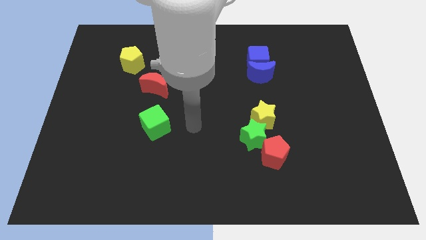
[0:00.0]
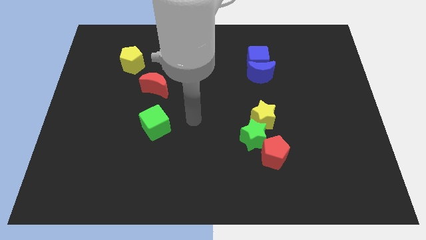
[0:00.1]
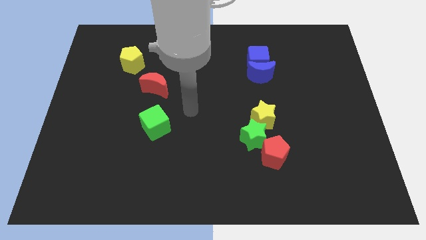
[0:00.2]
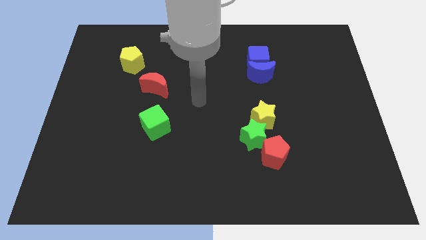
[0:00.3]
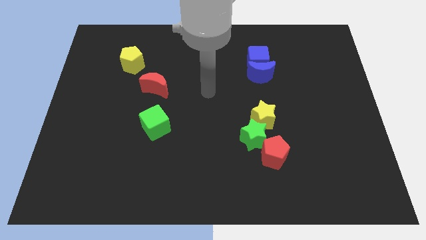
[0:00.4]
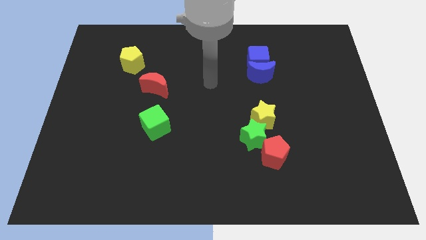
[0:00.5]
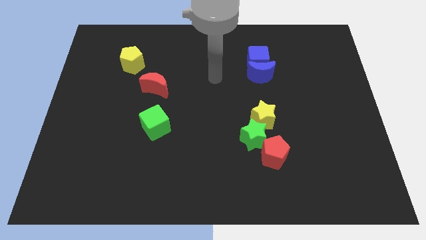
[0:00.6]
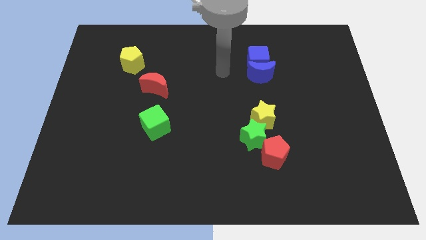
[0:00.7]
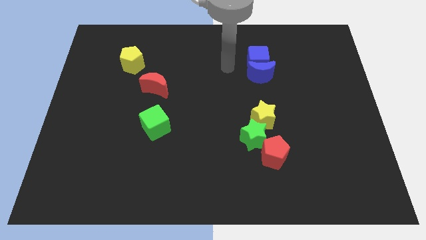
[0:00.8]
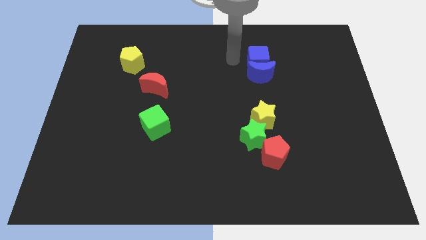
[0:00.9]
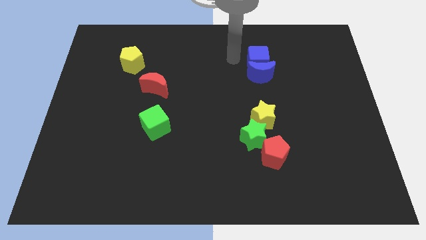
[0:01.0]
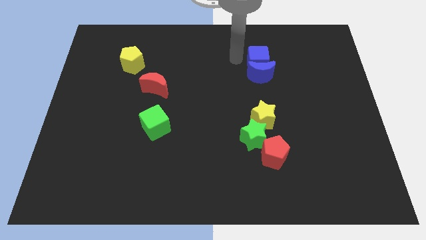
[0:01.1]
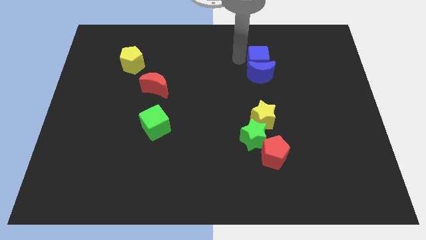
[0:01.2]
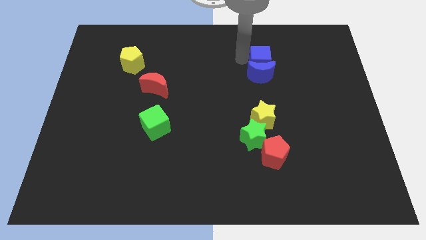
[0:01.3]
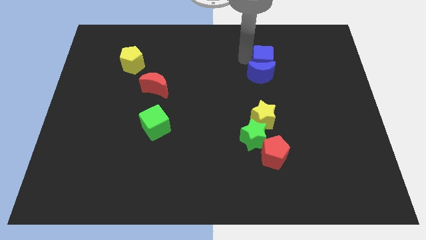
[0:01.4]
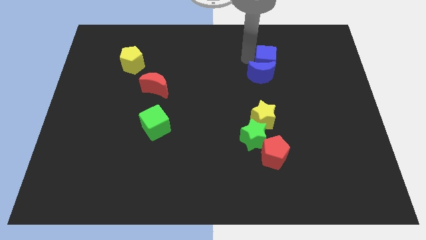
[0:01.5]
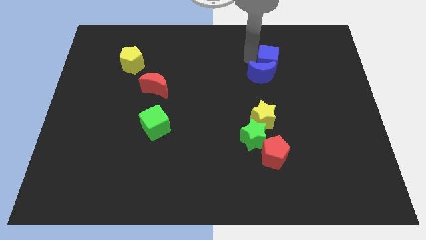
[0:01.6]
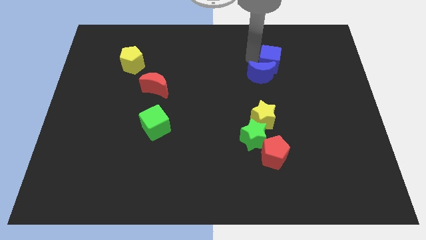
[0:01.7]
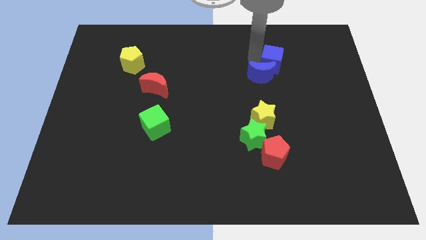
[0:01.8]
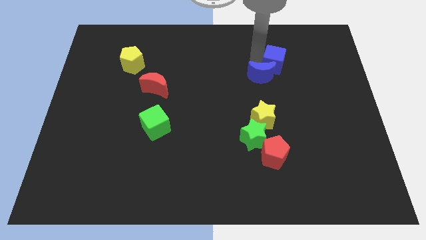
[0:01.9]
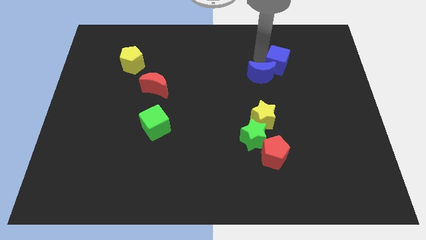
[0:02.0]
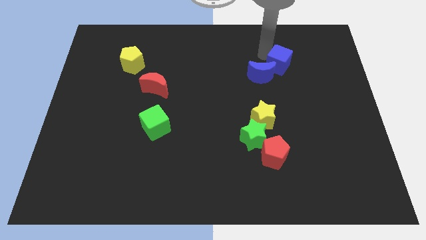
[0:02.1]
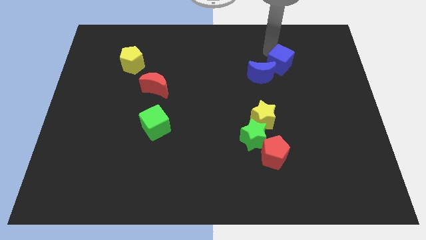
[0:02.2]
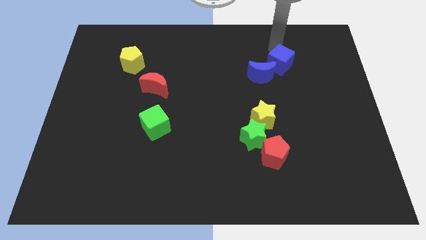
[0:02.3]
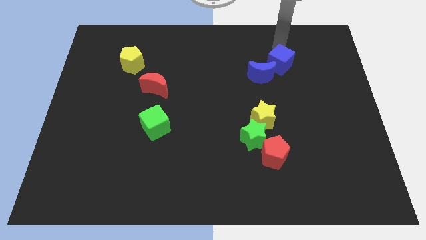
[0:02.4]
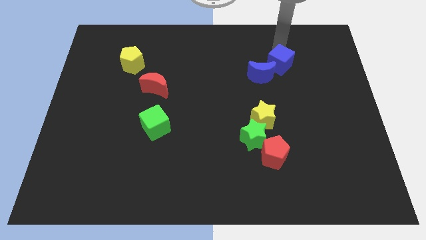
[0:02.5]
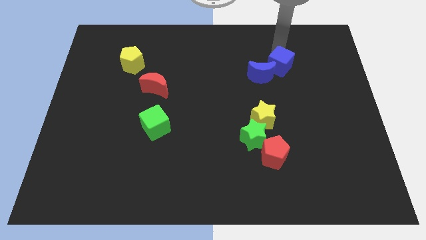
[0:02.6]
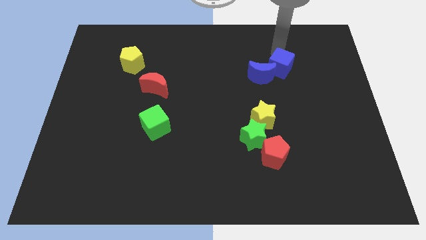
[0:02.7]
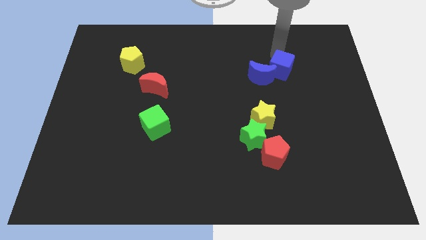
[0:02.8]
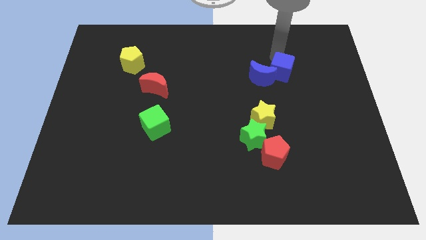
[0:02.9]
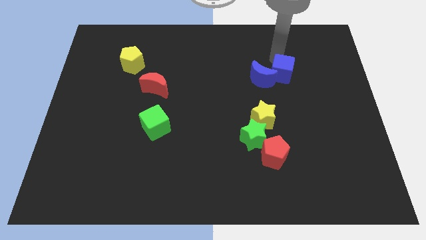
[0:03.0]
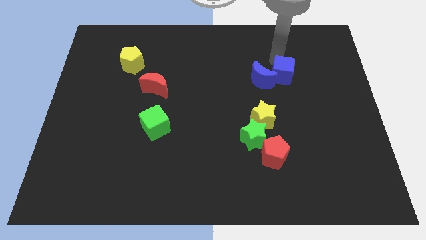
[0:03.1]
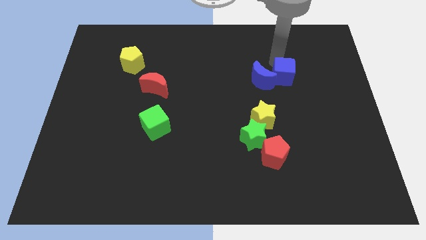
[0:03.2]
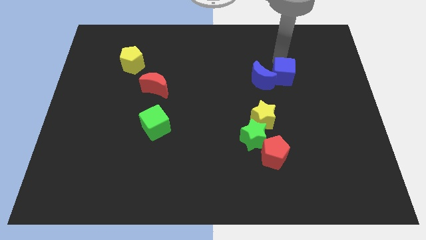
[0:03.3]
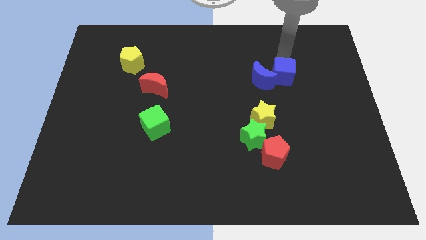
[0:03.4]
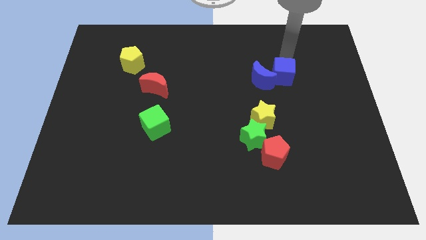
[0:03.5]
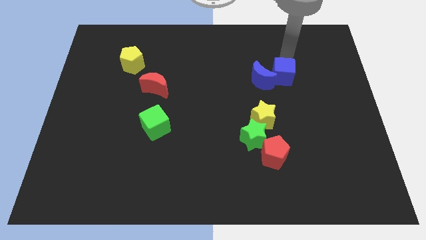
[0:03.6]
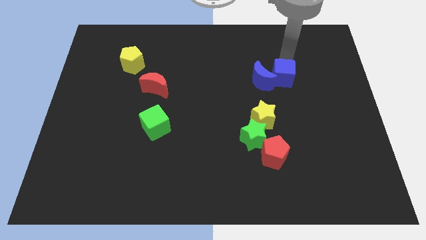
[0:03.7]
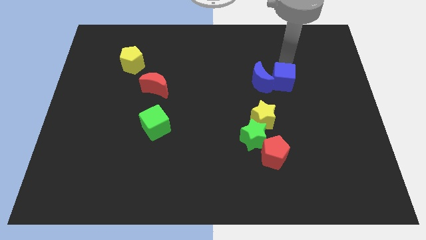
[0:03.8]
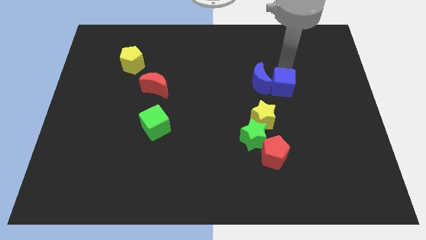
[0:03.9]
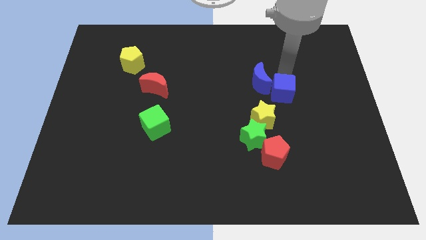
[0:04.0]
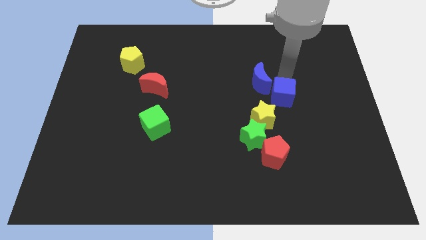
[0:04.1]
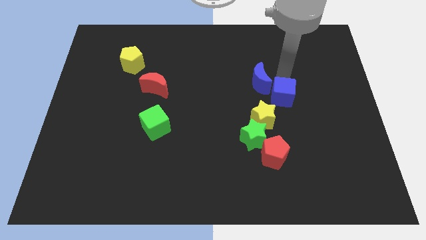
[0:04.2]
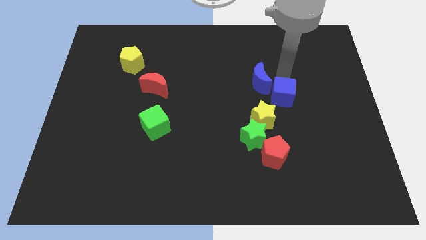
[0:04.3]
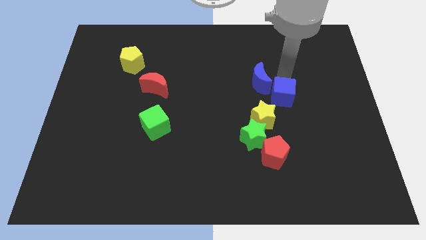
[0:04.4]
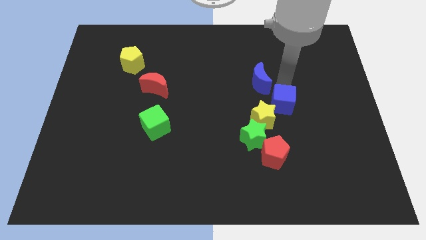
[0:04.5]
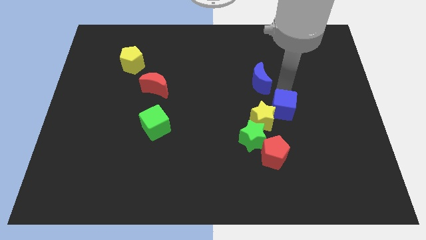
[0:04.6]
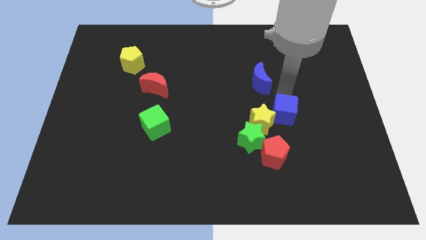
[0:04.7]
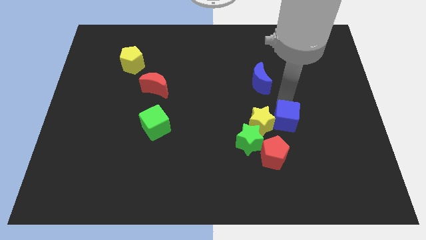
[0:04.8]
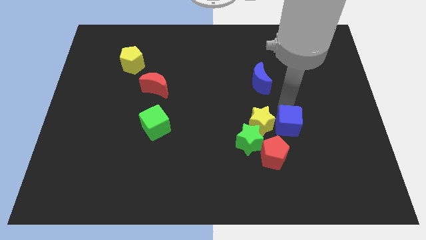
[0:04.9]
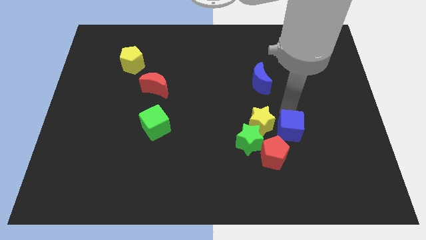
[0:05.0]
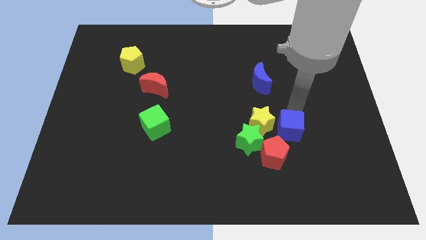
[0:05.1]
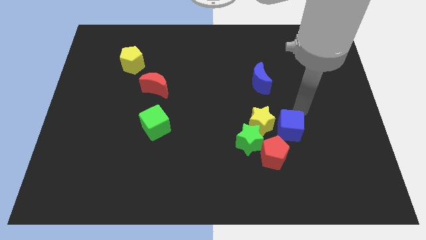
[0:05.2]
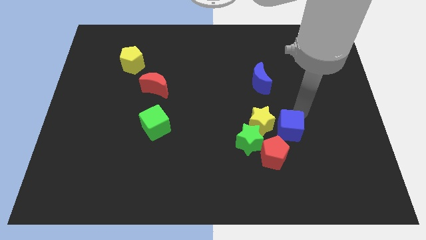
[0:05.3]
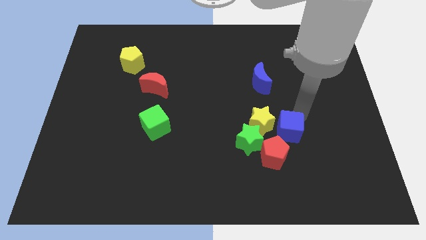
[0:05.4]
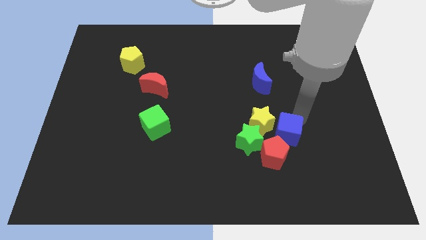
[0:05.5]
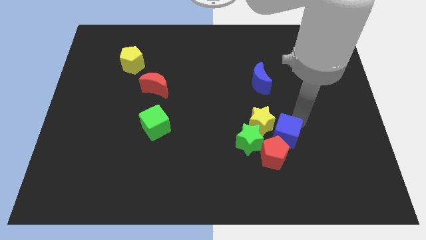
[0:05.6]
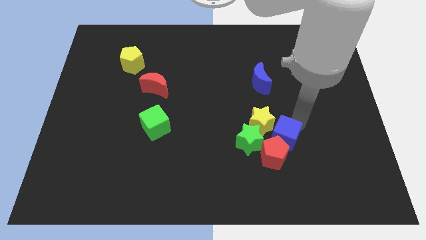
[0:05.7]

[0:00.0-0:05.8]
slide the blue cube close to the red pentagon

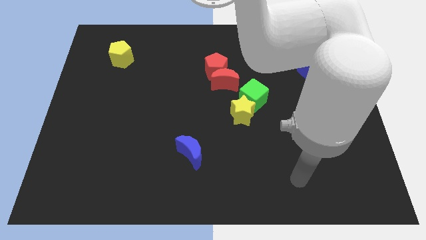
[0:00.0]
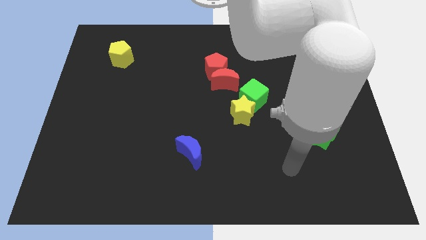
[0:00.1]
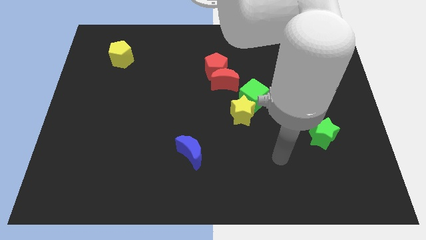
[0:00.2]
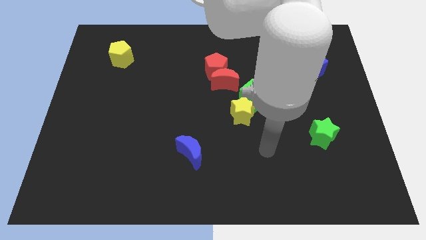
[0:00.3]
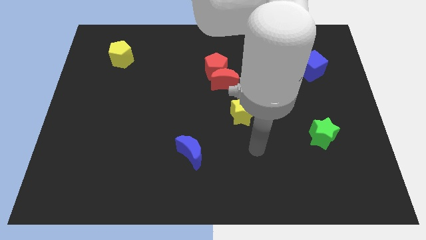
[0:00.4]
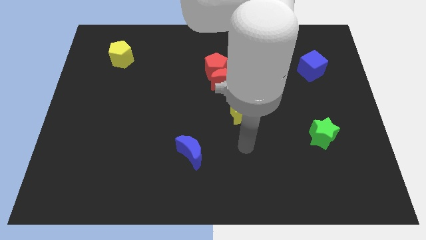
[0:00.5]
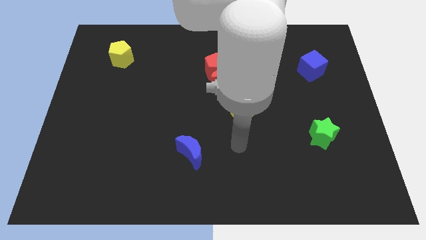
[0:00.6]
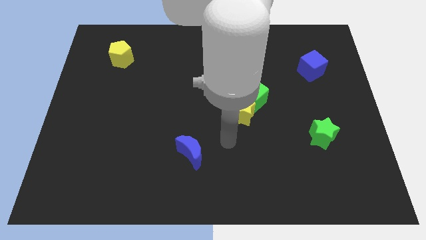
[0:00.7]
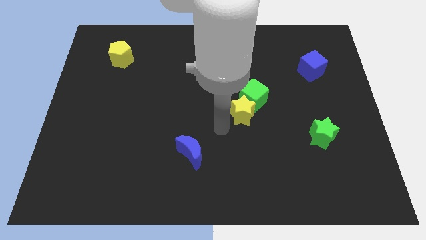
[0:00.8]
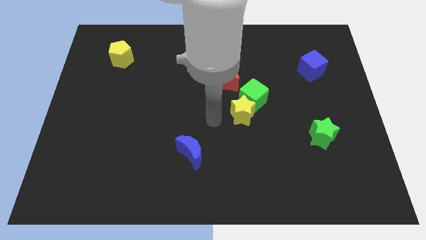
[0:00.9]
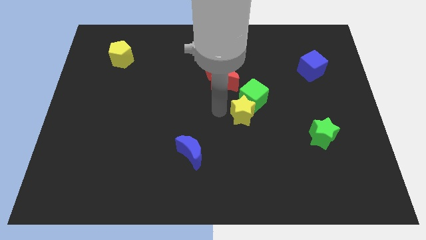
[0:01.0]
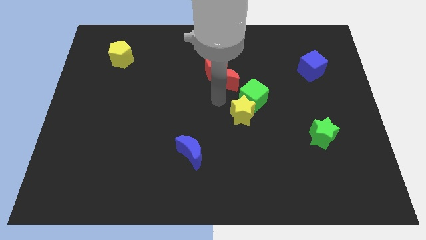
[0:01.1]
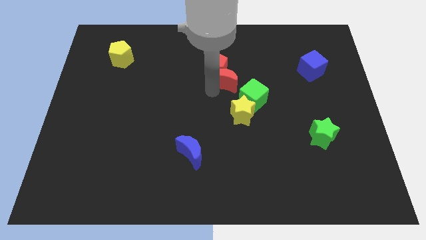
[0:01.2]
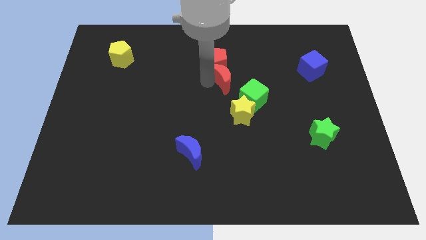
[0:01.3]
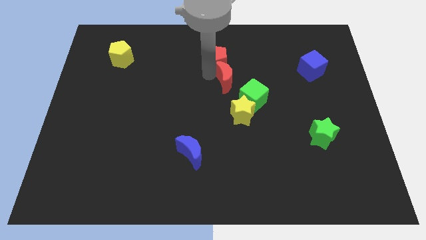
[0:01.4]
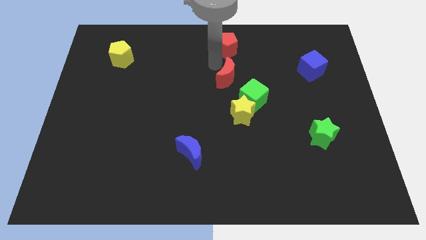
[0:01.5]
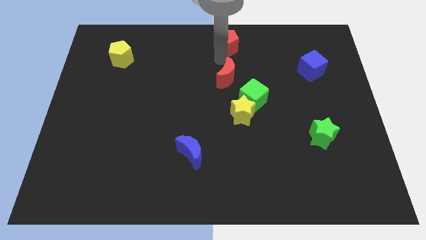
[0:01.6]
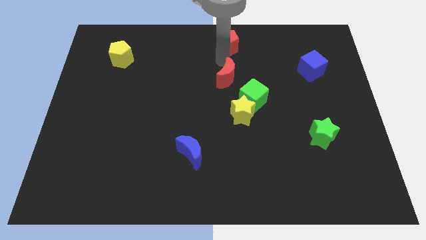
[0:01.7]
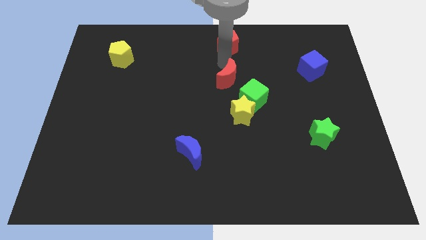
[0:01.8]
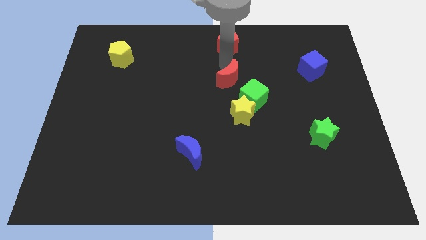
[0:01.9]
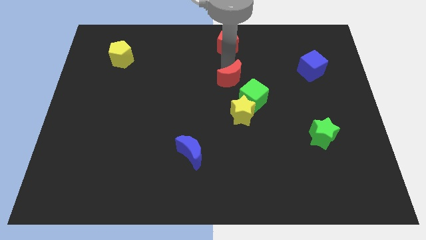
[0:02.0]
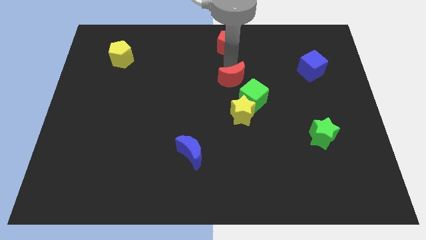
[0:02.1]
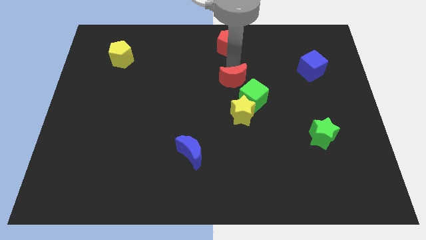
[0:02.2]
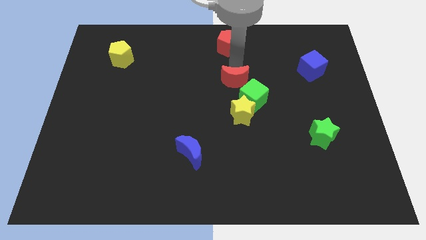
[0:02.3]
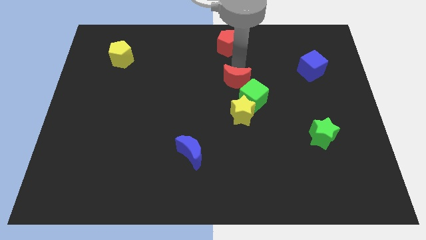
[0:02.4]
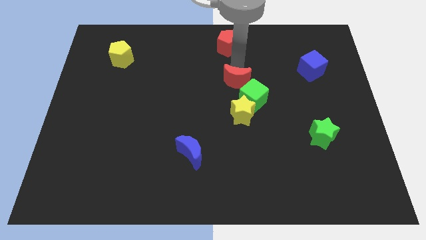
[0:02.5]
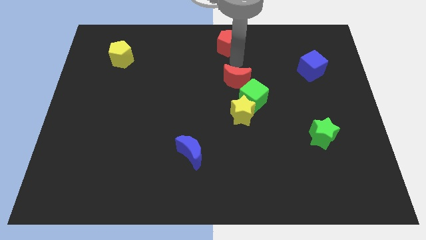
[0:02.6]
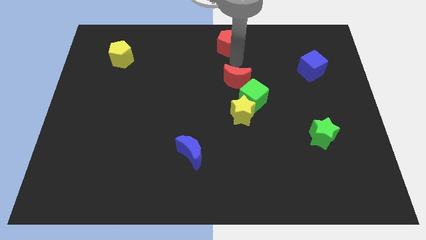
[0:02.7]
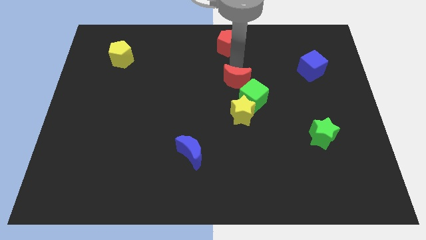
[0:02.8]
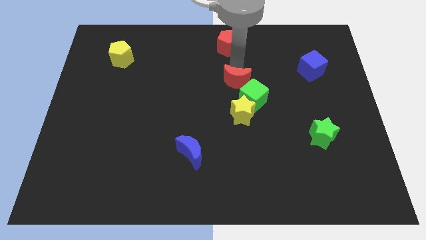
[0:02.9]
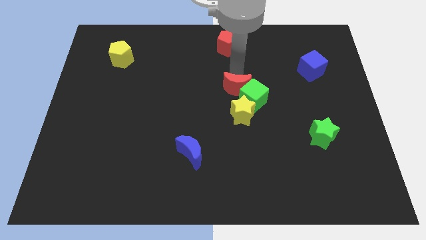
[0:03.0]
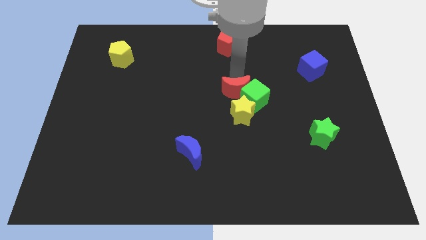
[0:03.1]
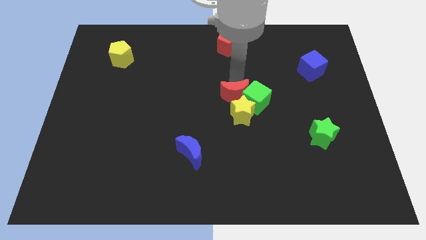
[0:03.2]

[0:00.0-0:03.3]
put the red moon next to the yellow star
